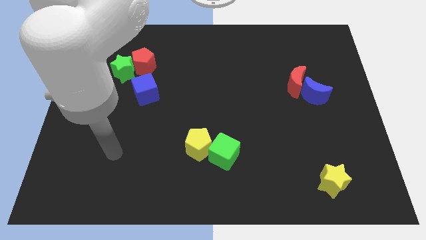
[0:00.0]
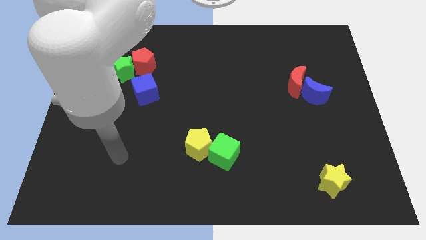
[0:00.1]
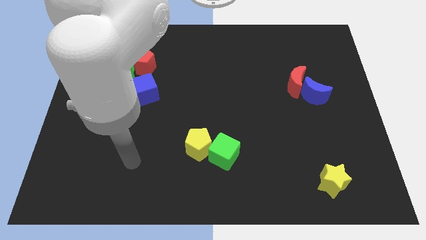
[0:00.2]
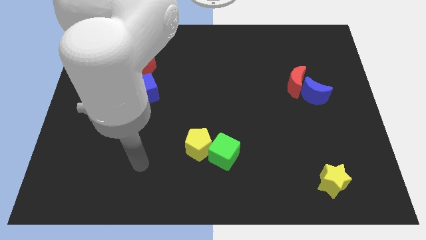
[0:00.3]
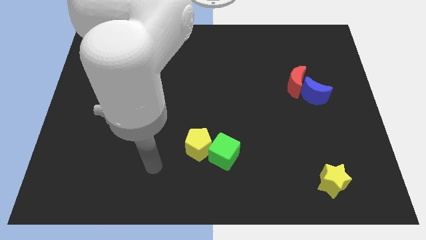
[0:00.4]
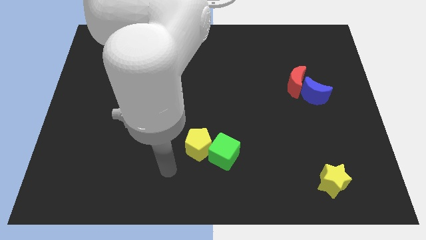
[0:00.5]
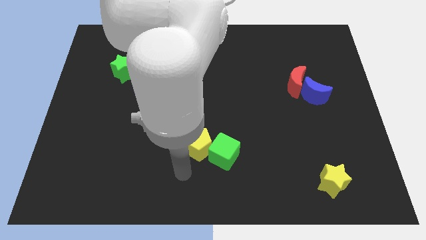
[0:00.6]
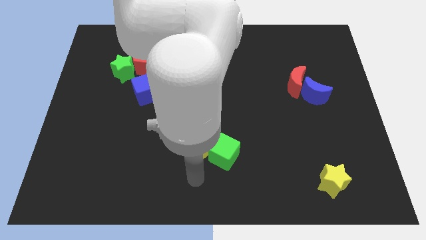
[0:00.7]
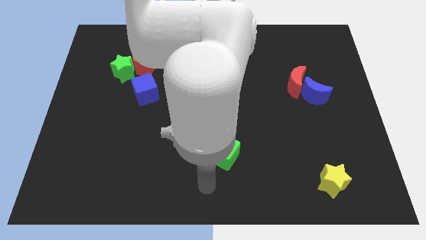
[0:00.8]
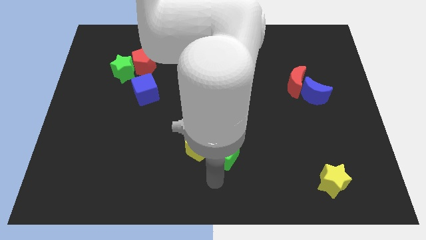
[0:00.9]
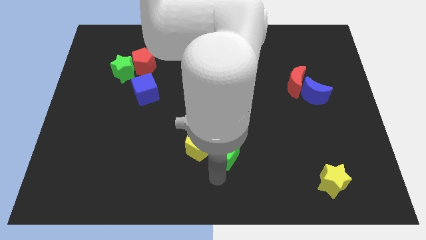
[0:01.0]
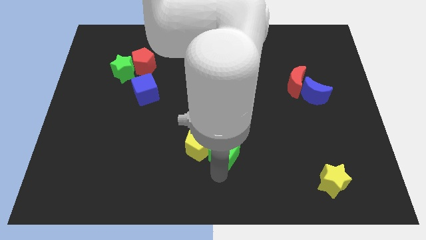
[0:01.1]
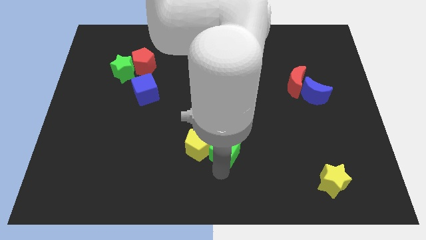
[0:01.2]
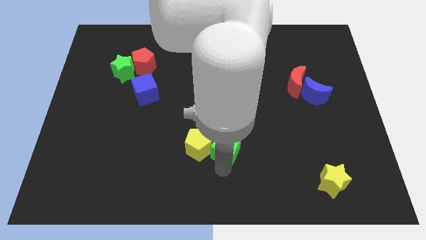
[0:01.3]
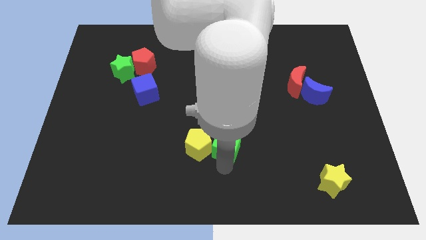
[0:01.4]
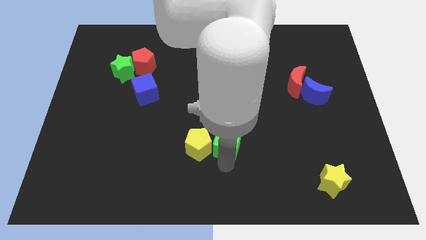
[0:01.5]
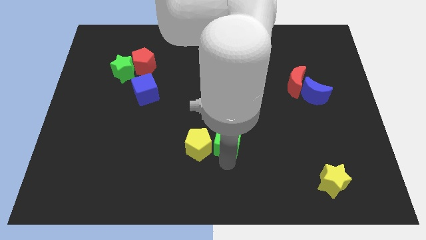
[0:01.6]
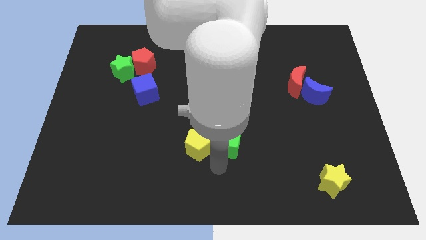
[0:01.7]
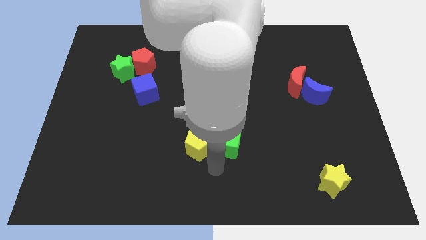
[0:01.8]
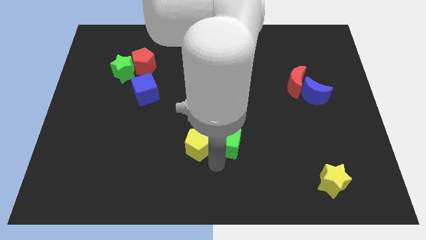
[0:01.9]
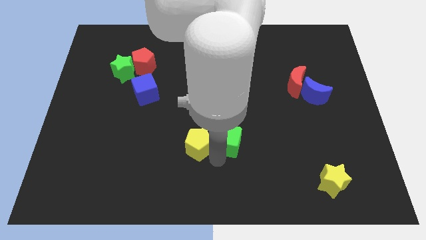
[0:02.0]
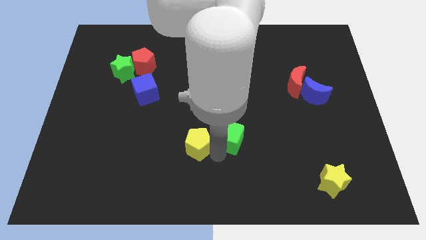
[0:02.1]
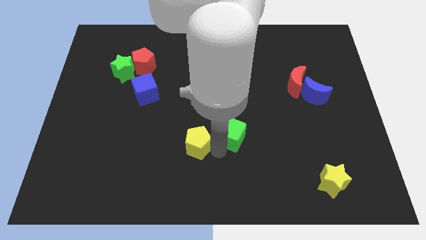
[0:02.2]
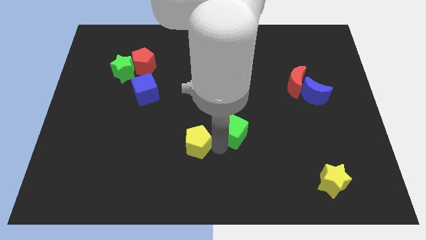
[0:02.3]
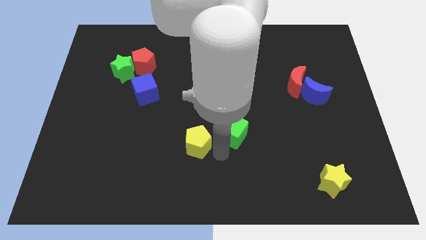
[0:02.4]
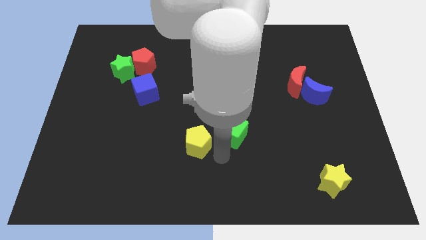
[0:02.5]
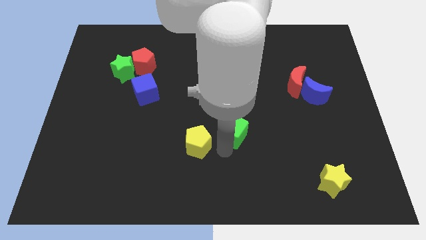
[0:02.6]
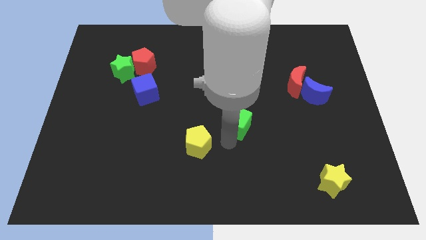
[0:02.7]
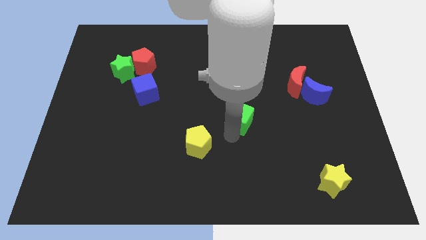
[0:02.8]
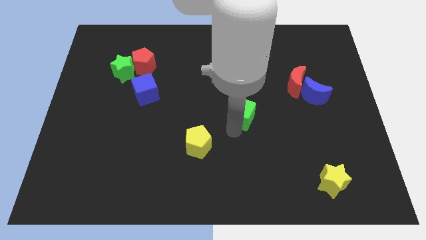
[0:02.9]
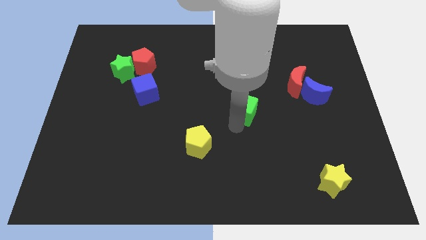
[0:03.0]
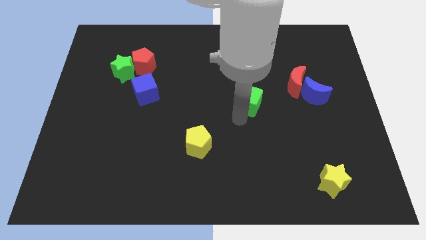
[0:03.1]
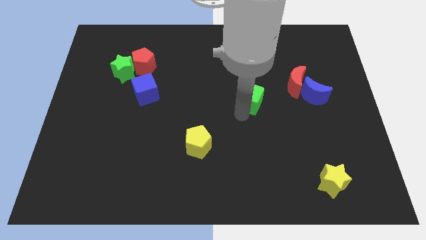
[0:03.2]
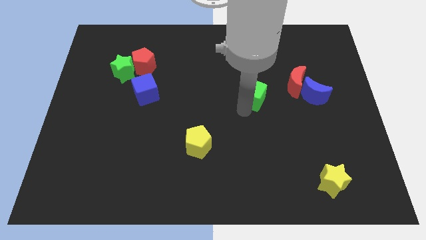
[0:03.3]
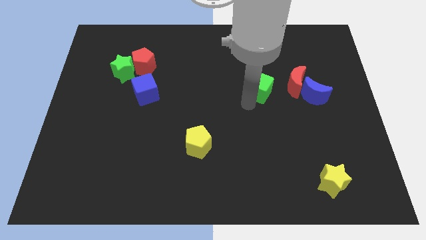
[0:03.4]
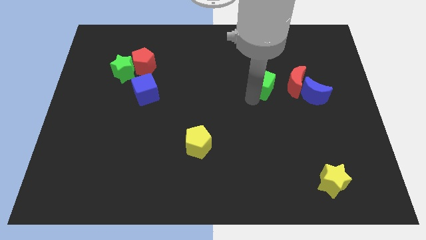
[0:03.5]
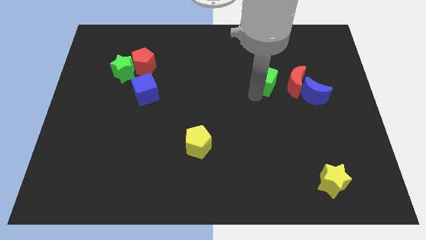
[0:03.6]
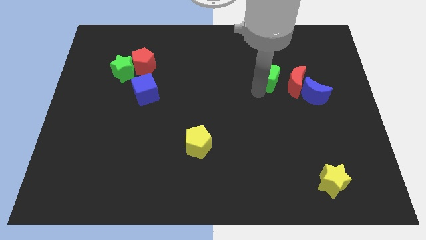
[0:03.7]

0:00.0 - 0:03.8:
move the green cube up and to the right diagonally

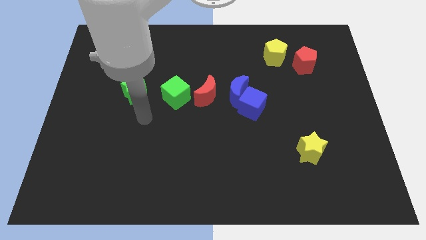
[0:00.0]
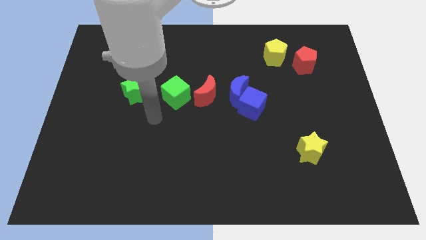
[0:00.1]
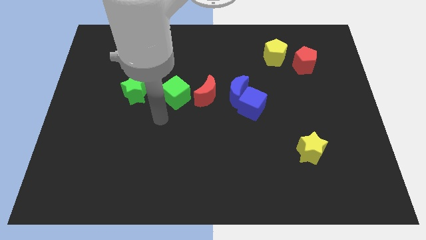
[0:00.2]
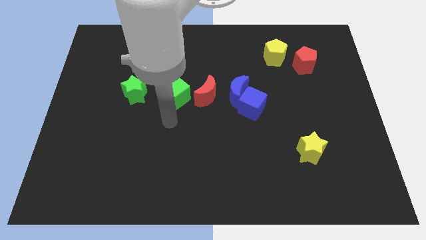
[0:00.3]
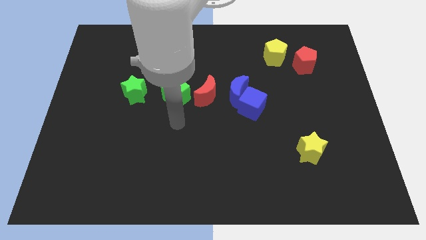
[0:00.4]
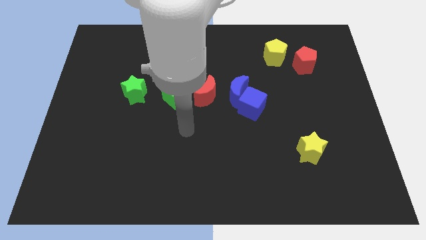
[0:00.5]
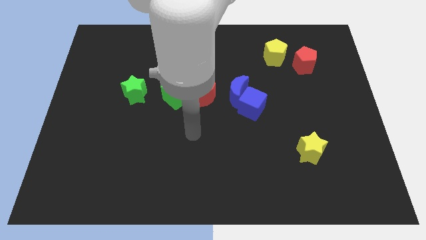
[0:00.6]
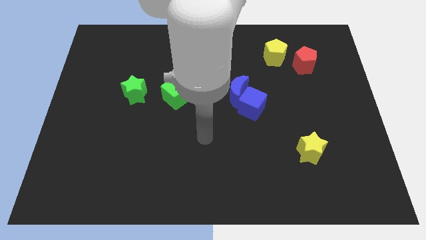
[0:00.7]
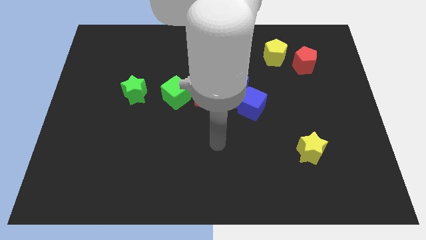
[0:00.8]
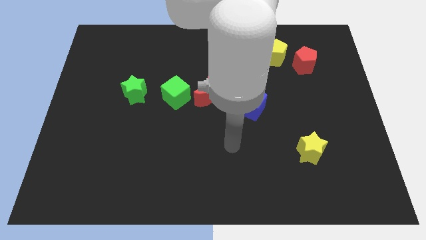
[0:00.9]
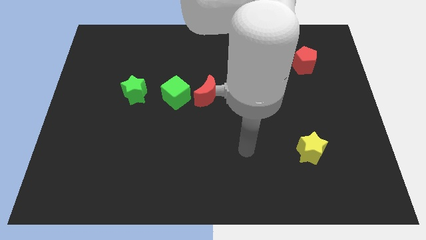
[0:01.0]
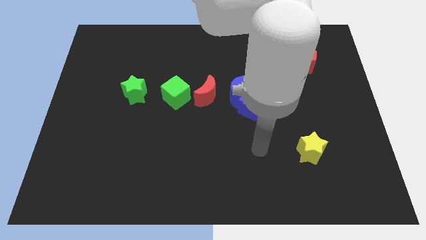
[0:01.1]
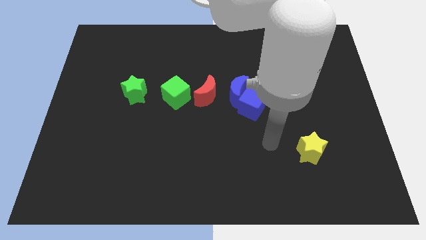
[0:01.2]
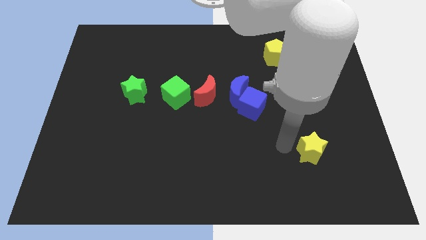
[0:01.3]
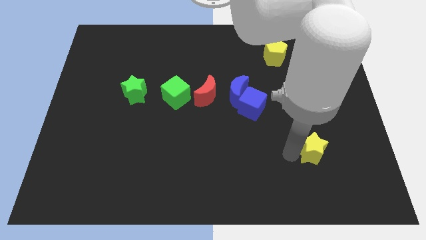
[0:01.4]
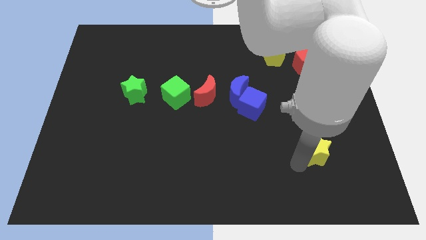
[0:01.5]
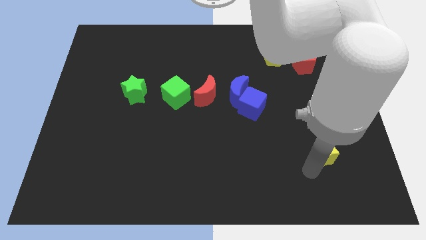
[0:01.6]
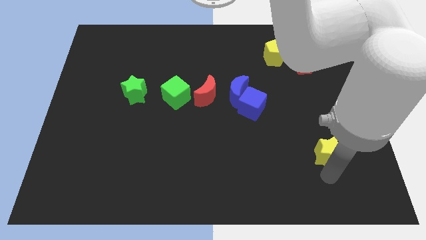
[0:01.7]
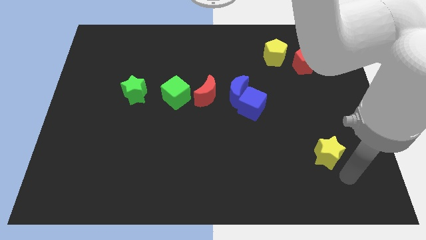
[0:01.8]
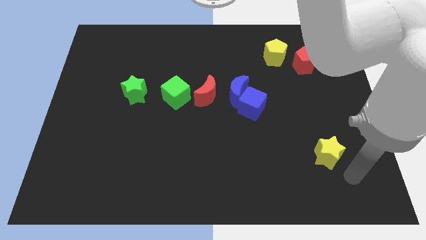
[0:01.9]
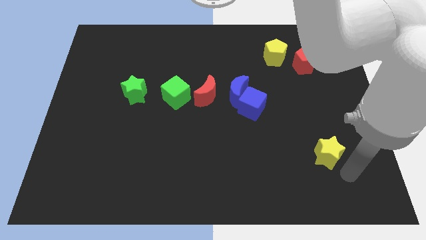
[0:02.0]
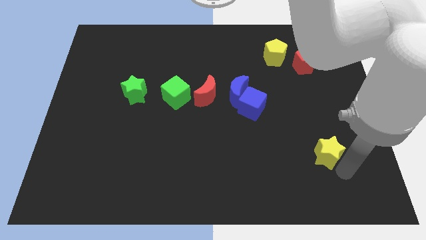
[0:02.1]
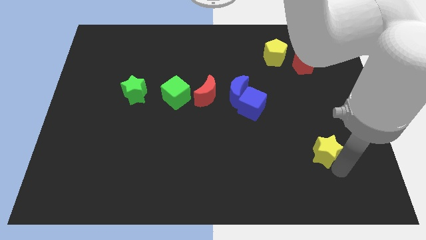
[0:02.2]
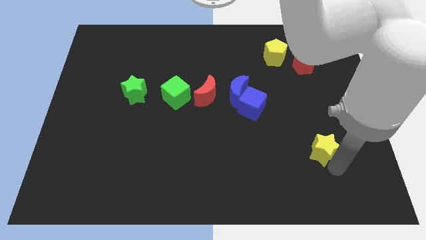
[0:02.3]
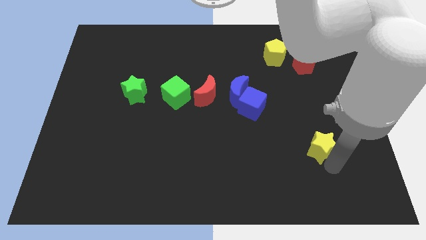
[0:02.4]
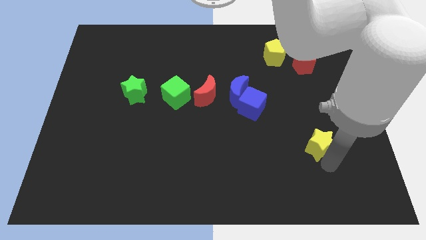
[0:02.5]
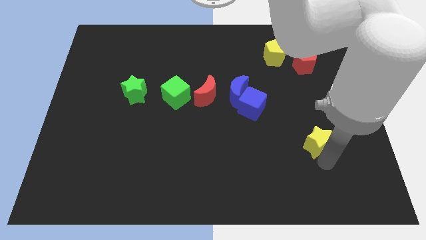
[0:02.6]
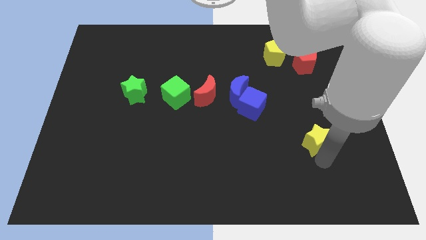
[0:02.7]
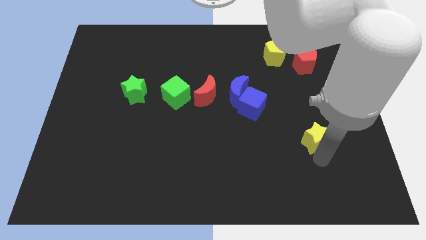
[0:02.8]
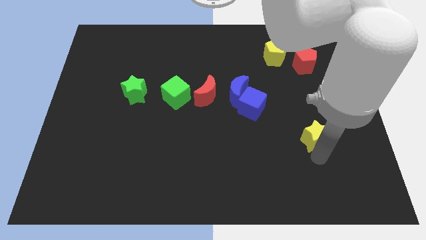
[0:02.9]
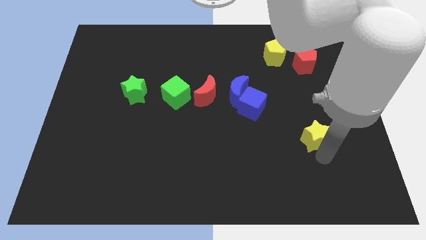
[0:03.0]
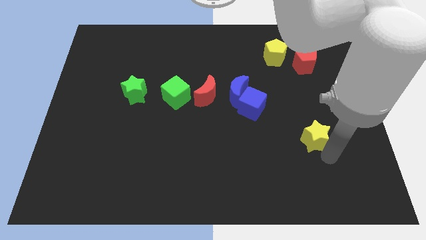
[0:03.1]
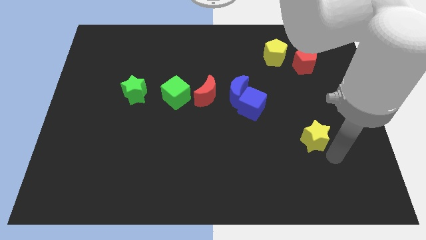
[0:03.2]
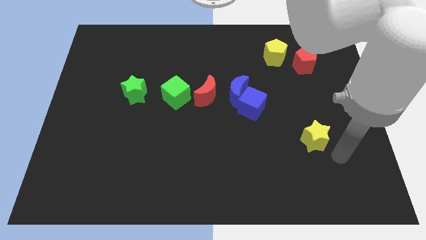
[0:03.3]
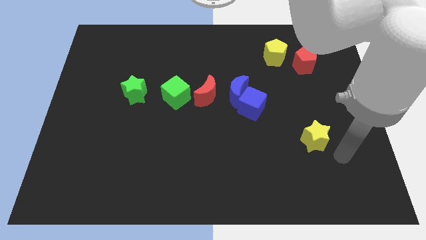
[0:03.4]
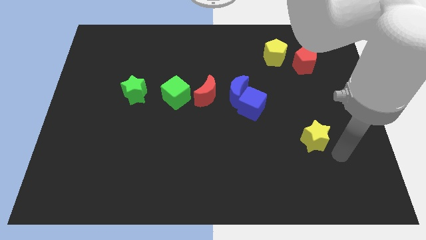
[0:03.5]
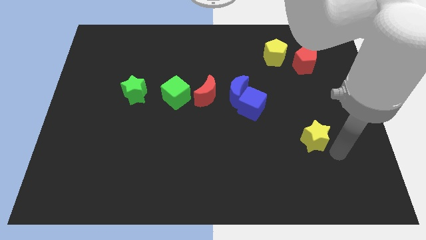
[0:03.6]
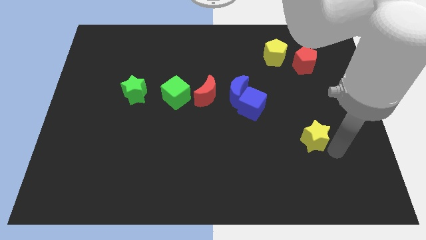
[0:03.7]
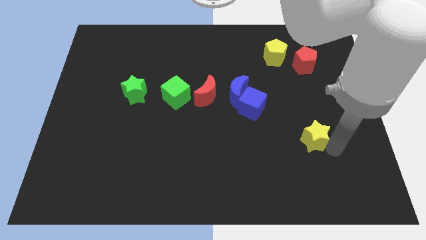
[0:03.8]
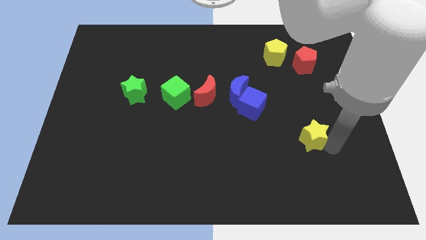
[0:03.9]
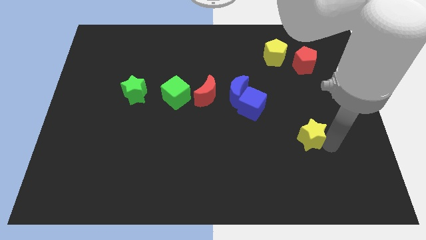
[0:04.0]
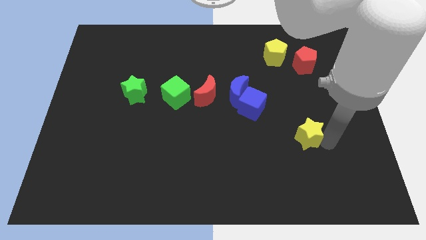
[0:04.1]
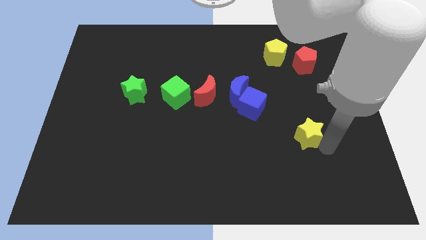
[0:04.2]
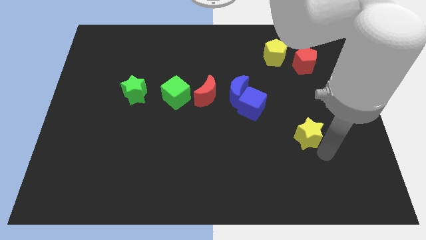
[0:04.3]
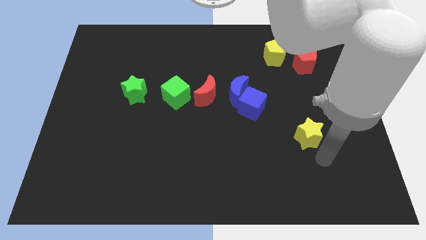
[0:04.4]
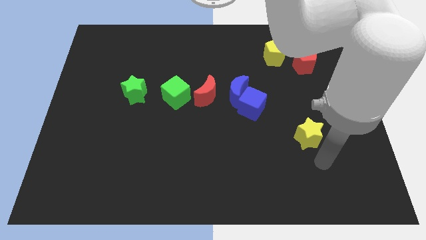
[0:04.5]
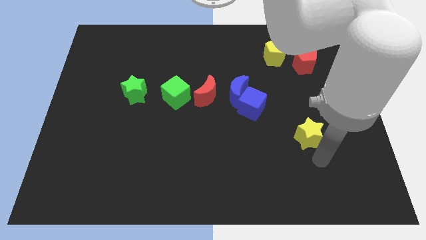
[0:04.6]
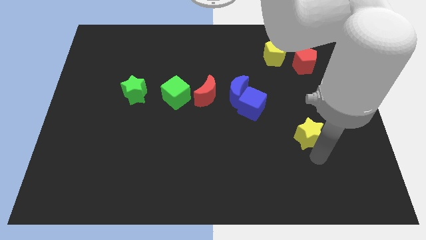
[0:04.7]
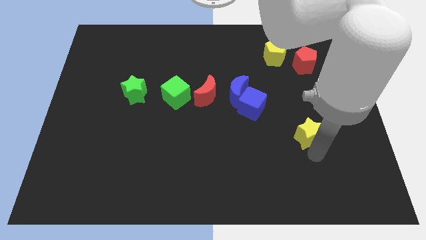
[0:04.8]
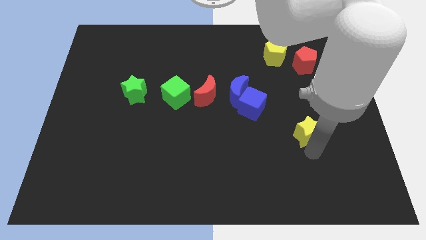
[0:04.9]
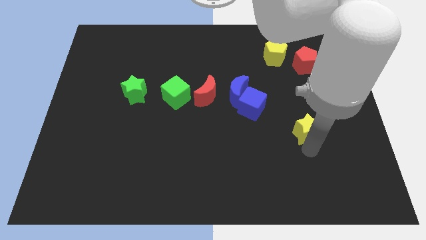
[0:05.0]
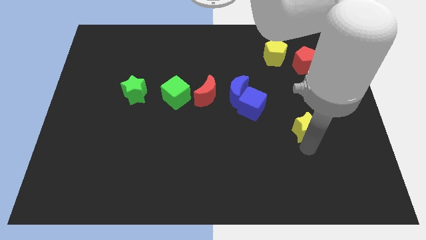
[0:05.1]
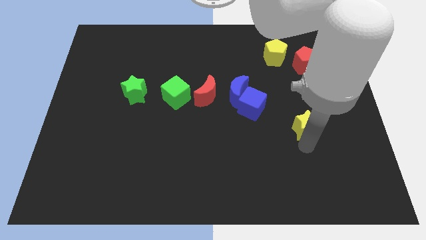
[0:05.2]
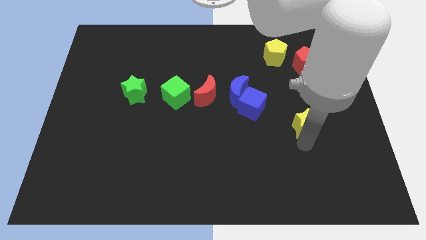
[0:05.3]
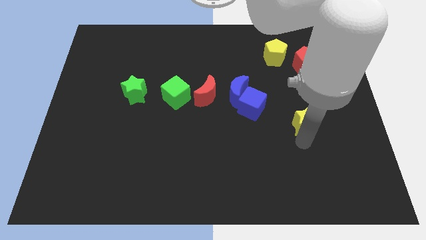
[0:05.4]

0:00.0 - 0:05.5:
slightly slide the yellow star up
